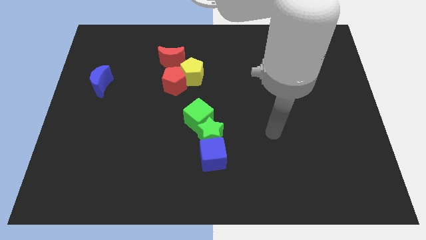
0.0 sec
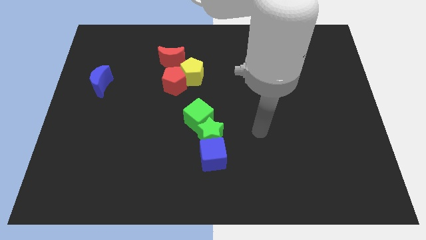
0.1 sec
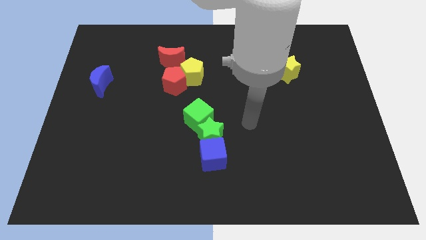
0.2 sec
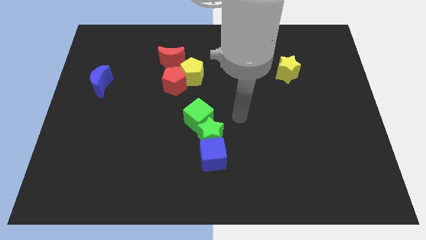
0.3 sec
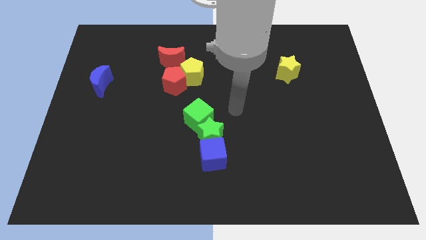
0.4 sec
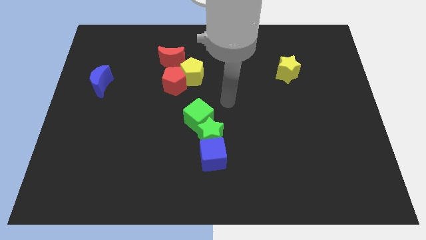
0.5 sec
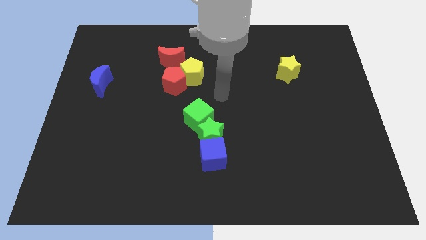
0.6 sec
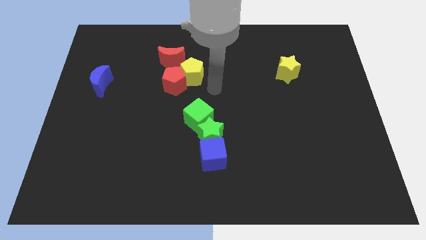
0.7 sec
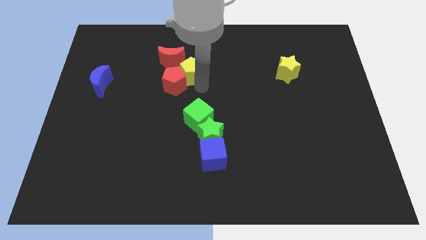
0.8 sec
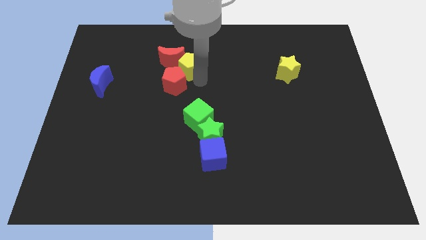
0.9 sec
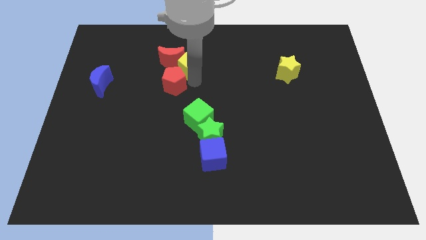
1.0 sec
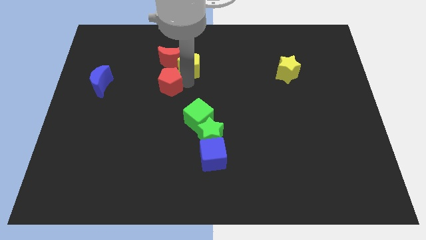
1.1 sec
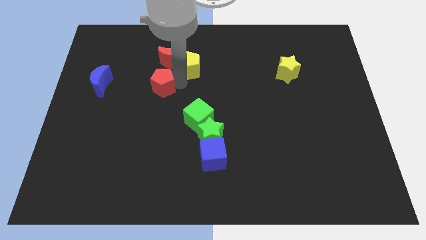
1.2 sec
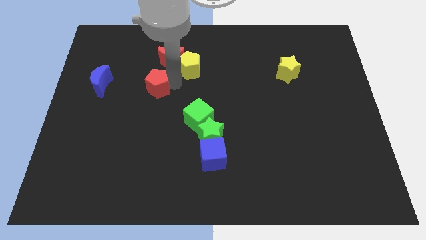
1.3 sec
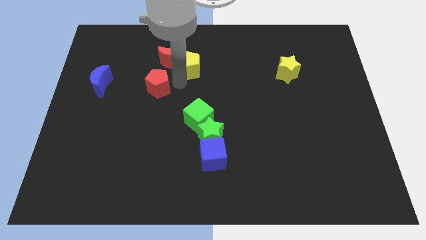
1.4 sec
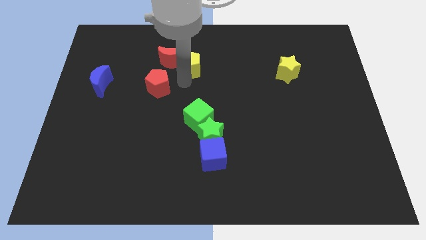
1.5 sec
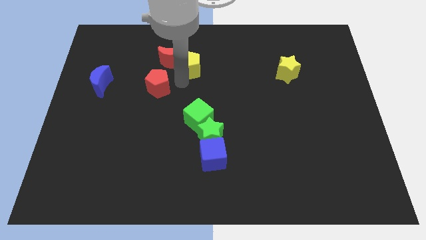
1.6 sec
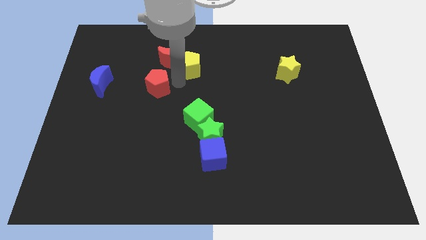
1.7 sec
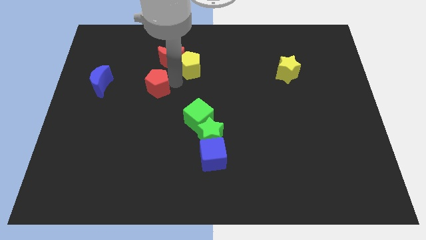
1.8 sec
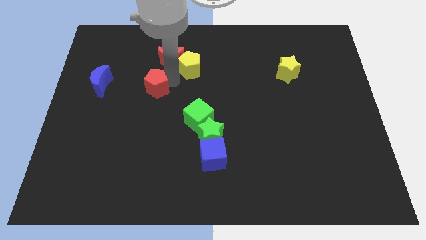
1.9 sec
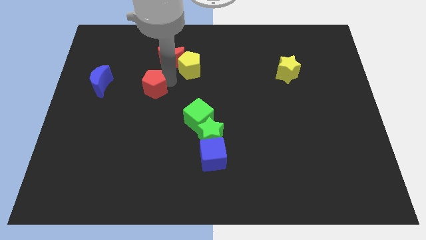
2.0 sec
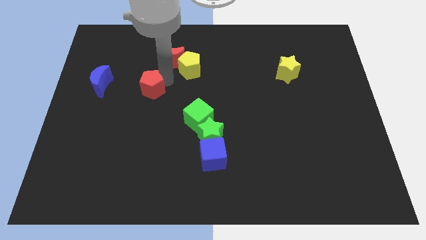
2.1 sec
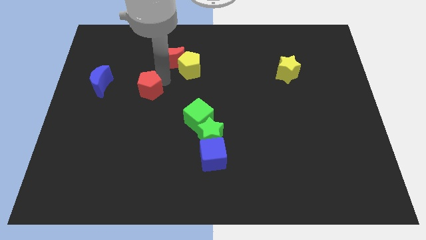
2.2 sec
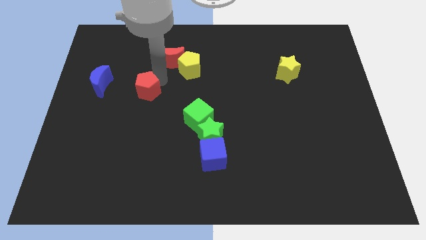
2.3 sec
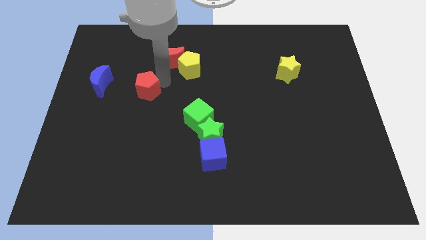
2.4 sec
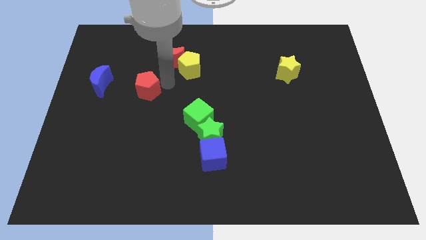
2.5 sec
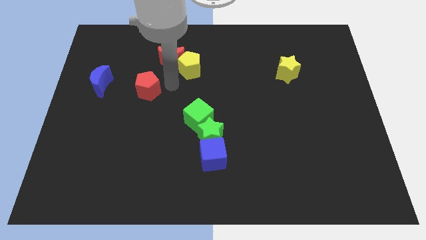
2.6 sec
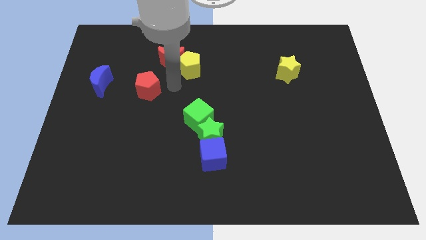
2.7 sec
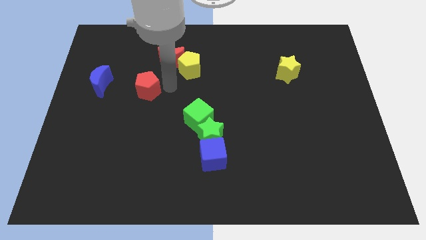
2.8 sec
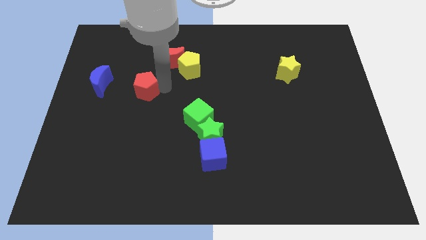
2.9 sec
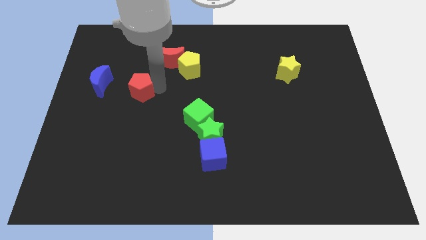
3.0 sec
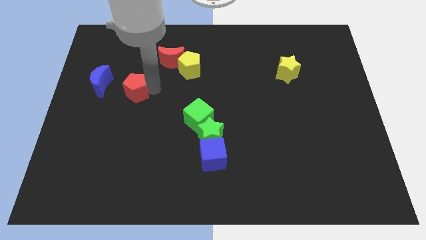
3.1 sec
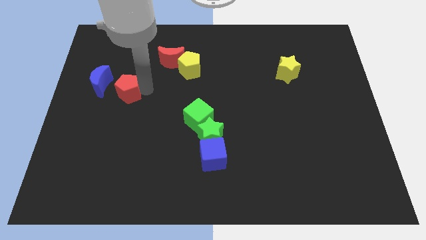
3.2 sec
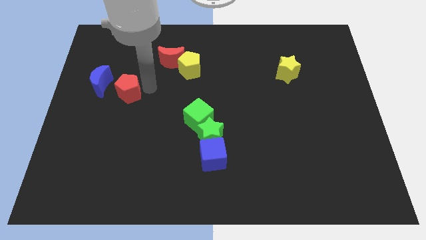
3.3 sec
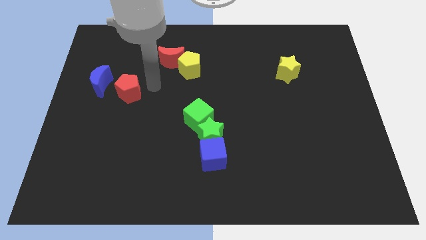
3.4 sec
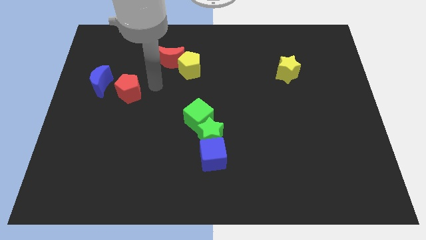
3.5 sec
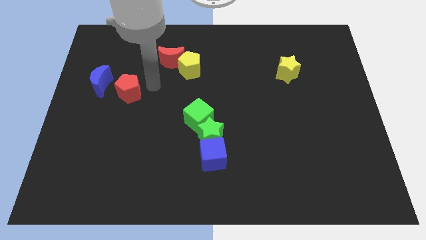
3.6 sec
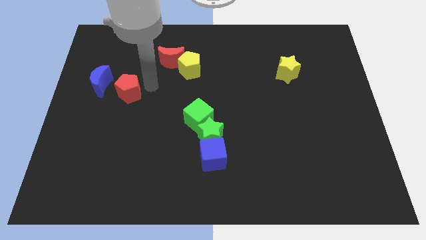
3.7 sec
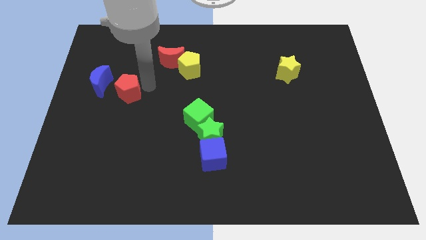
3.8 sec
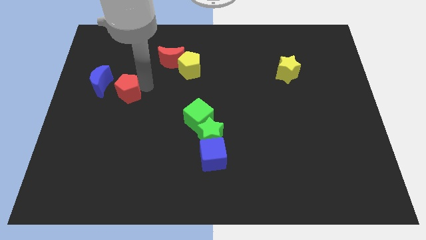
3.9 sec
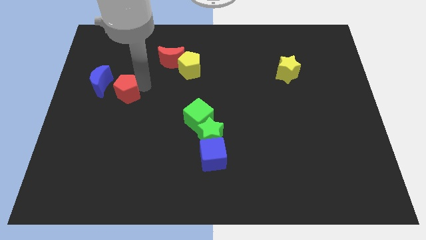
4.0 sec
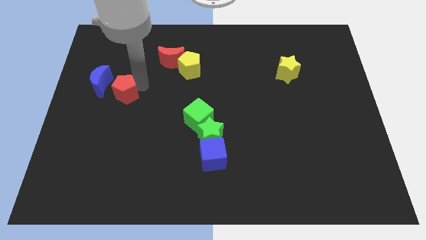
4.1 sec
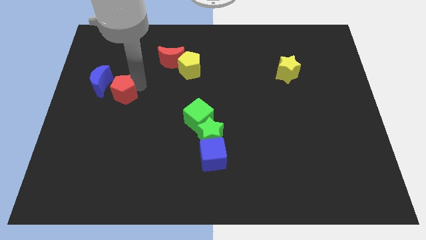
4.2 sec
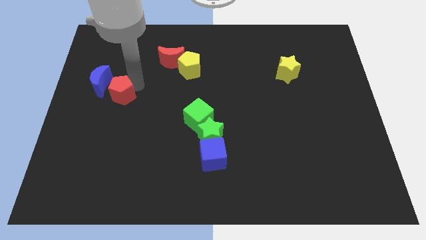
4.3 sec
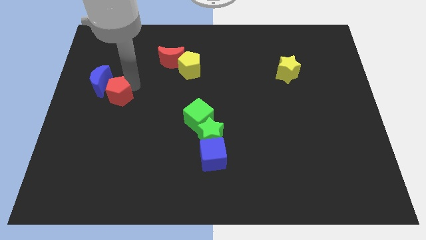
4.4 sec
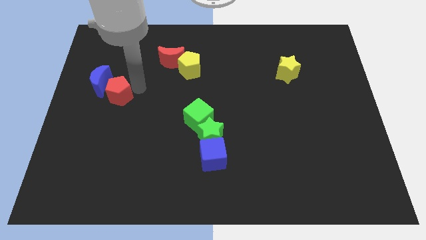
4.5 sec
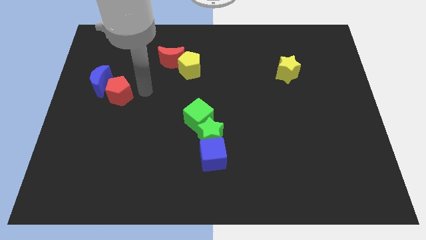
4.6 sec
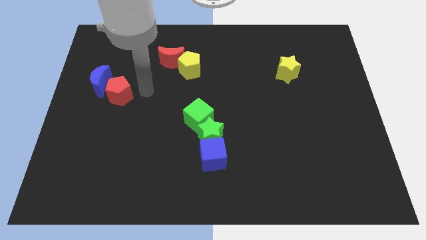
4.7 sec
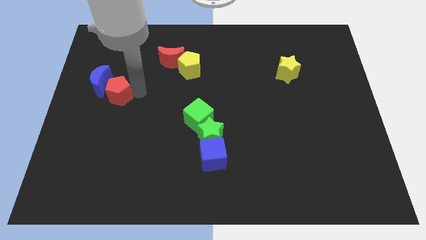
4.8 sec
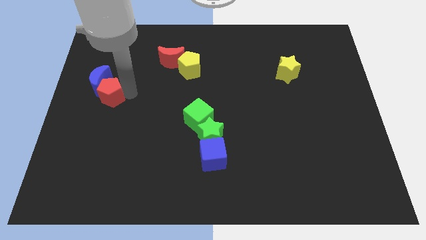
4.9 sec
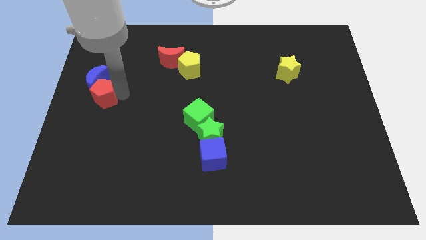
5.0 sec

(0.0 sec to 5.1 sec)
slide the red pentagon to the center left

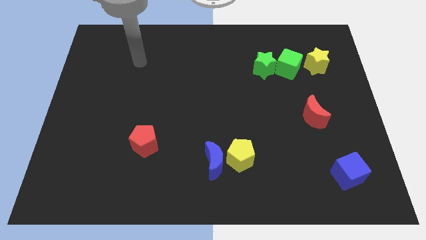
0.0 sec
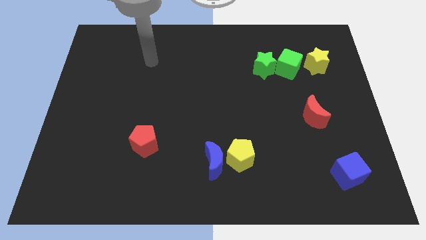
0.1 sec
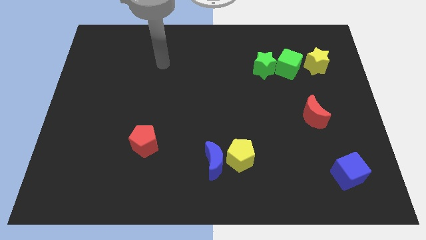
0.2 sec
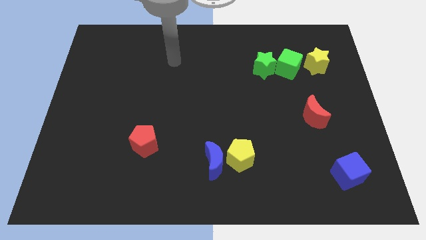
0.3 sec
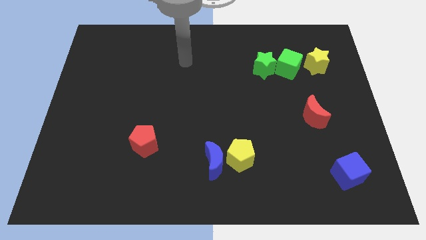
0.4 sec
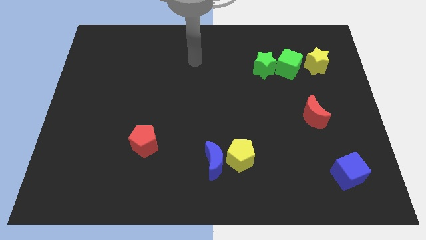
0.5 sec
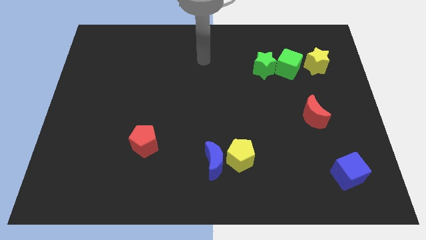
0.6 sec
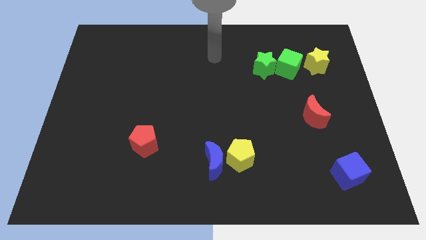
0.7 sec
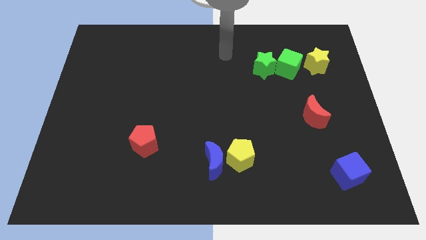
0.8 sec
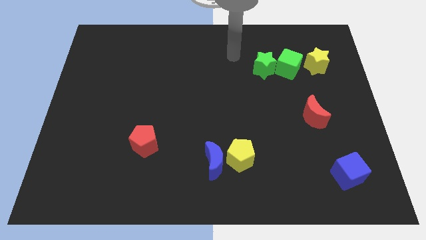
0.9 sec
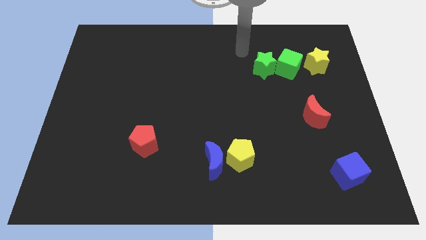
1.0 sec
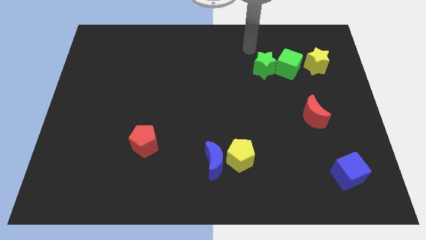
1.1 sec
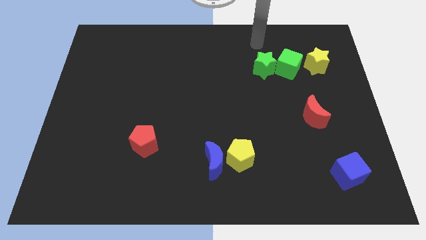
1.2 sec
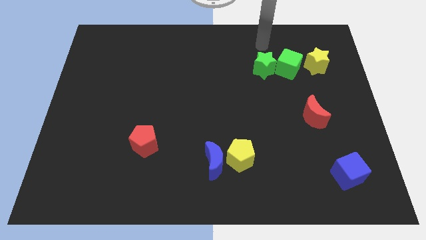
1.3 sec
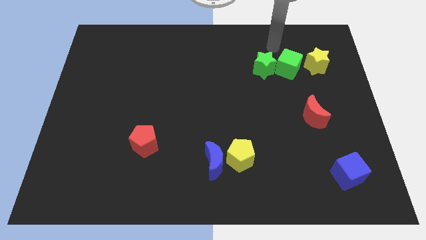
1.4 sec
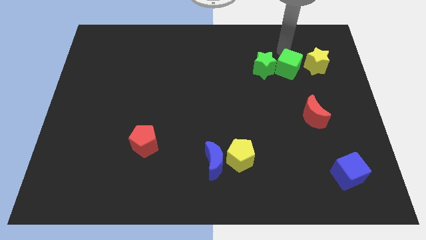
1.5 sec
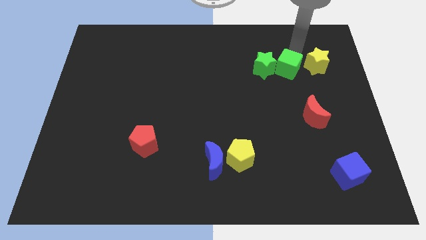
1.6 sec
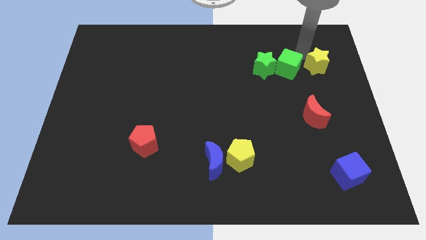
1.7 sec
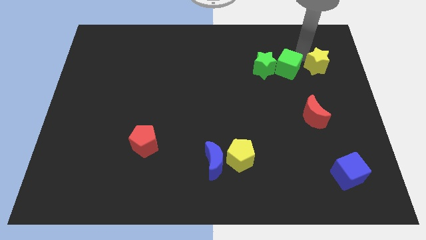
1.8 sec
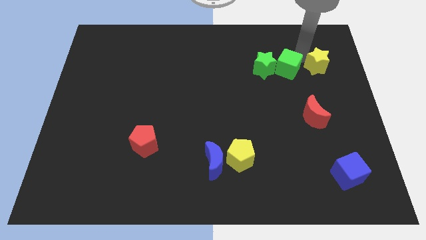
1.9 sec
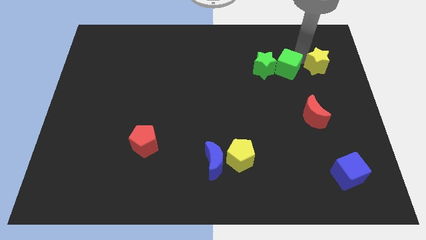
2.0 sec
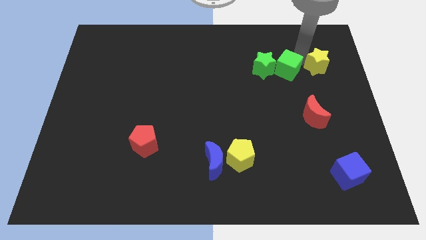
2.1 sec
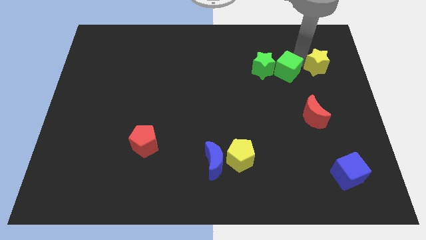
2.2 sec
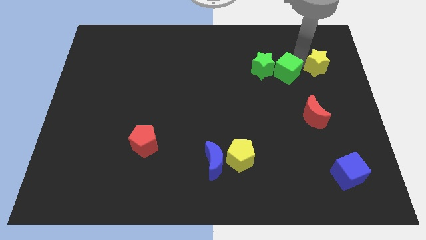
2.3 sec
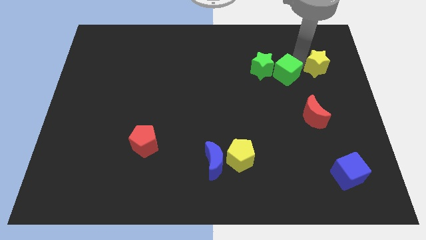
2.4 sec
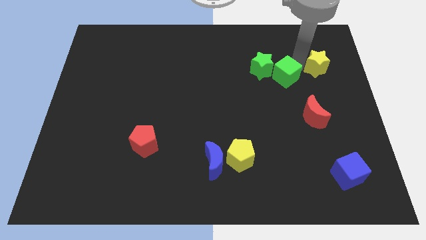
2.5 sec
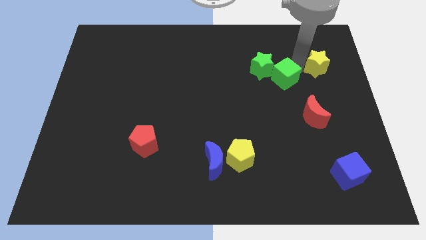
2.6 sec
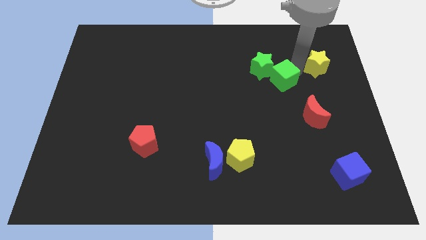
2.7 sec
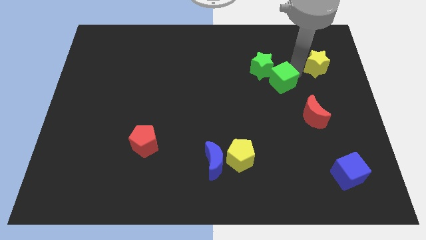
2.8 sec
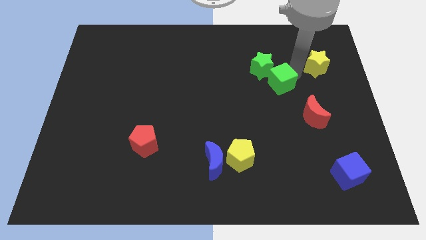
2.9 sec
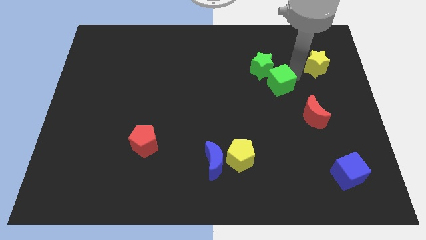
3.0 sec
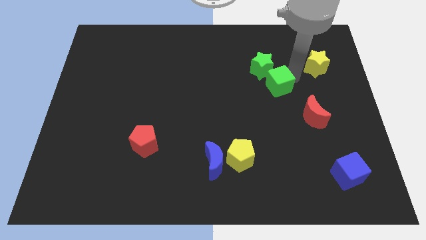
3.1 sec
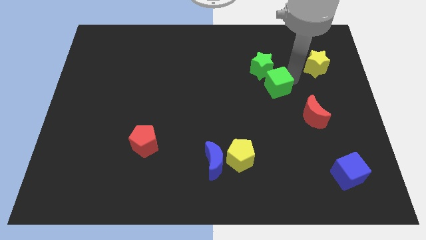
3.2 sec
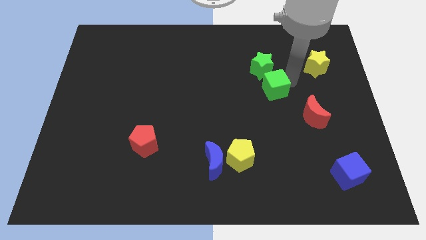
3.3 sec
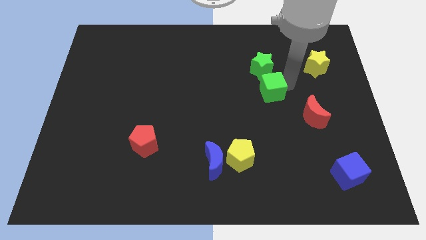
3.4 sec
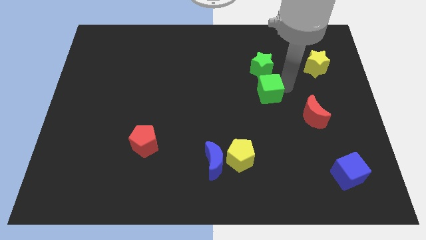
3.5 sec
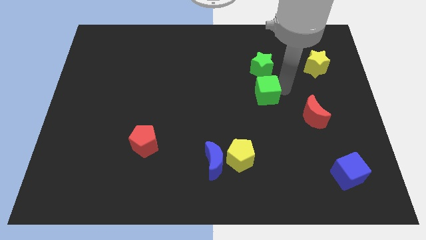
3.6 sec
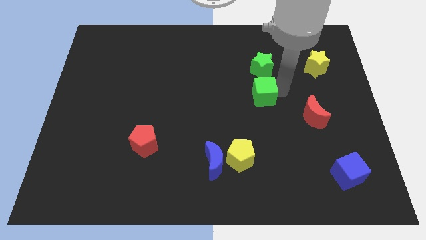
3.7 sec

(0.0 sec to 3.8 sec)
put the green cube to the middle of the board
